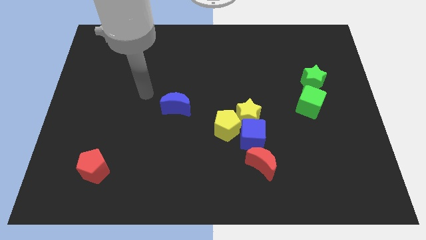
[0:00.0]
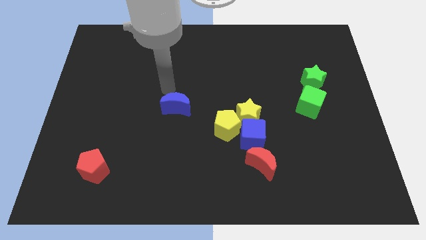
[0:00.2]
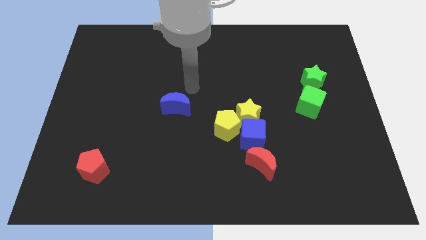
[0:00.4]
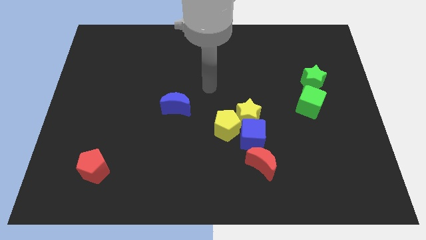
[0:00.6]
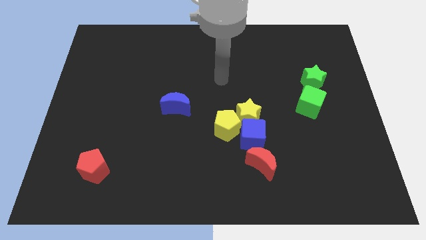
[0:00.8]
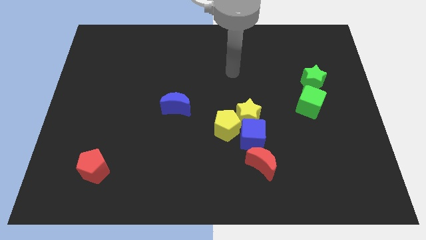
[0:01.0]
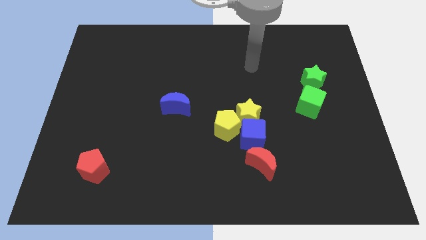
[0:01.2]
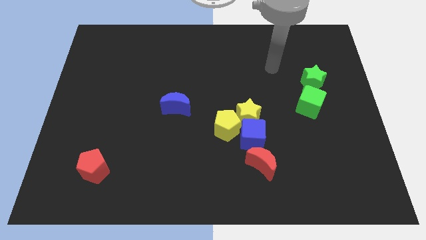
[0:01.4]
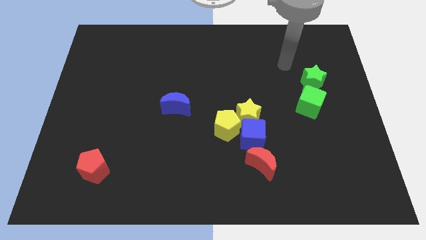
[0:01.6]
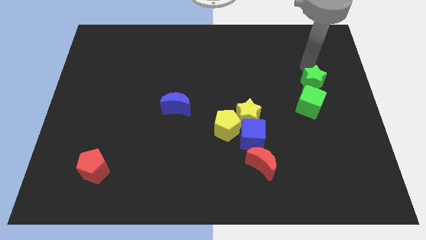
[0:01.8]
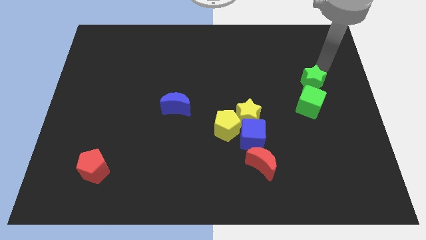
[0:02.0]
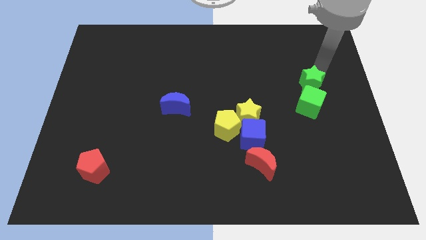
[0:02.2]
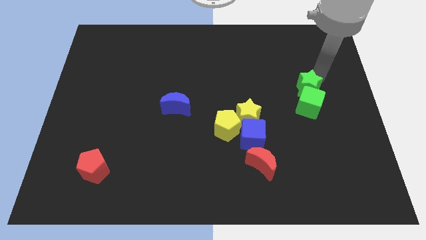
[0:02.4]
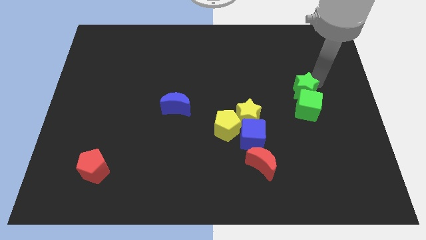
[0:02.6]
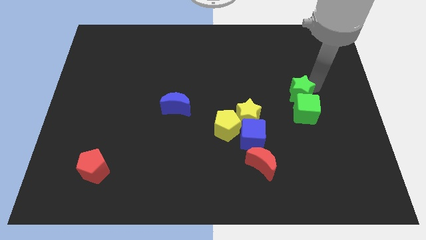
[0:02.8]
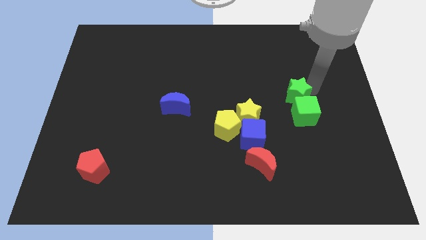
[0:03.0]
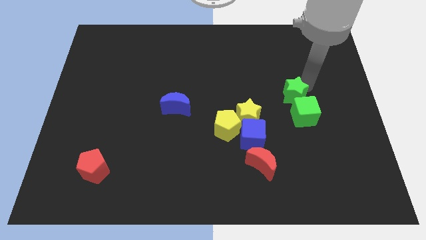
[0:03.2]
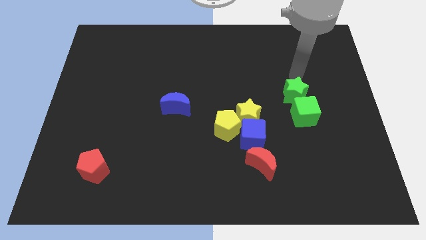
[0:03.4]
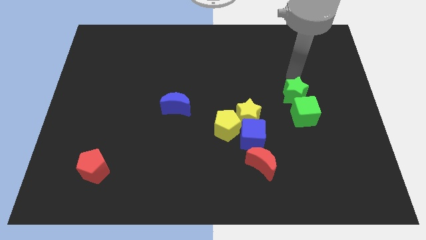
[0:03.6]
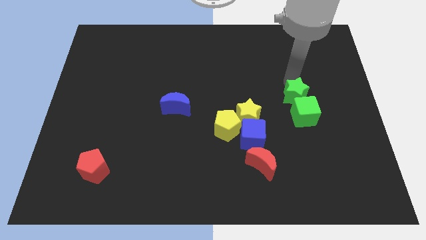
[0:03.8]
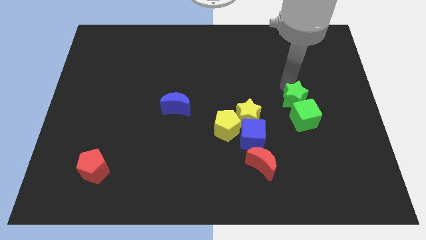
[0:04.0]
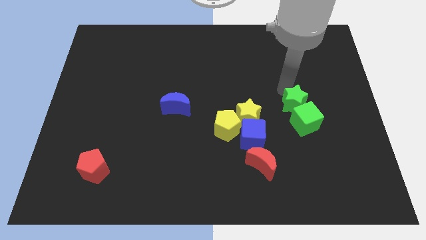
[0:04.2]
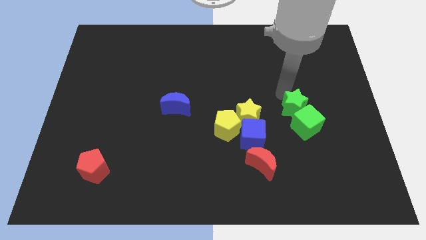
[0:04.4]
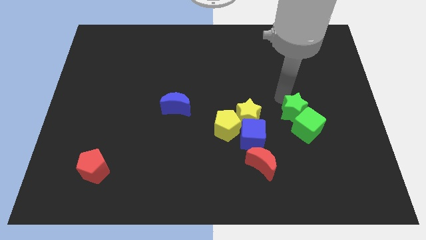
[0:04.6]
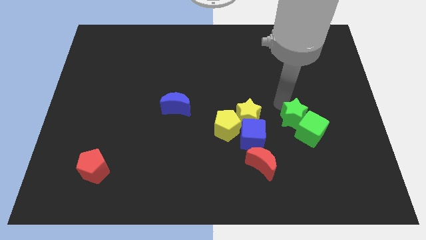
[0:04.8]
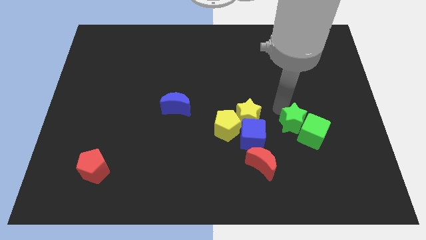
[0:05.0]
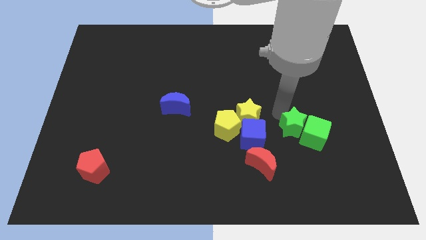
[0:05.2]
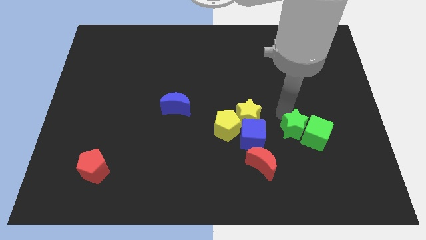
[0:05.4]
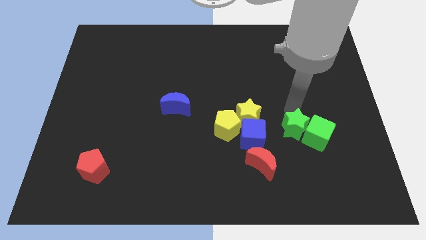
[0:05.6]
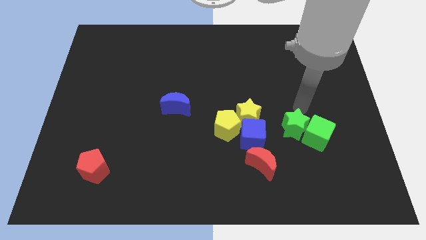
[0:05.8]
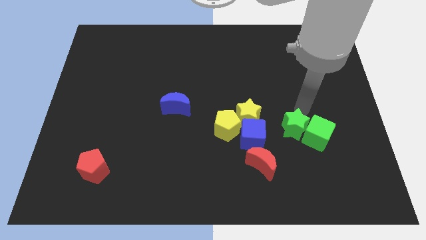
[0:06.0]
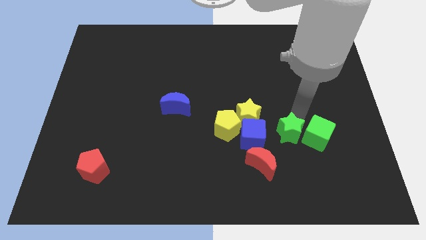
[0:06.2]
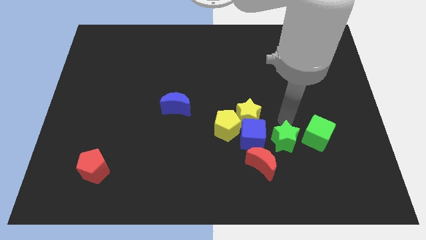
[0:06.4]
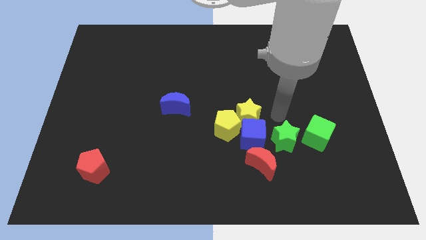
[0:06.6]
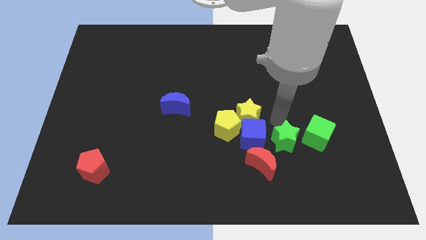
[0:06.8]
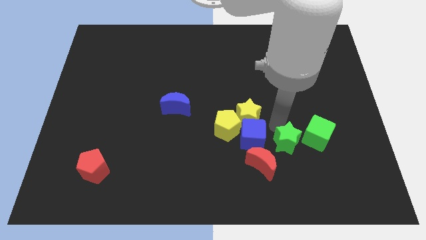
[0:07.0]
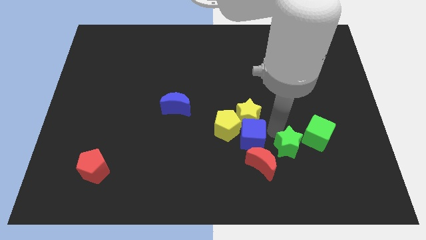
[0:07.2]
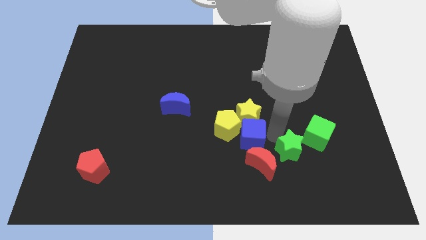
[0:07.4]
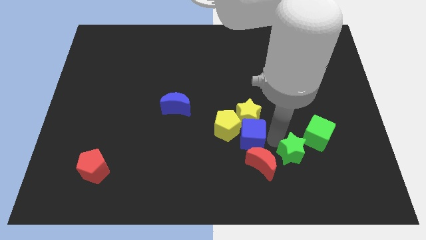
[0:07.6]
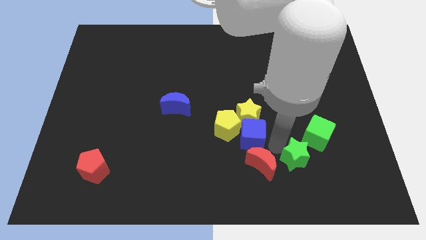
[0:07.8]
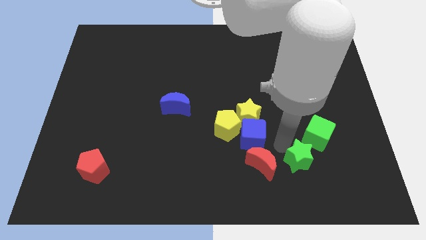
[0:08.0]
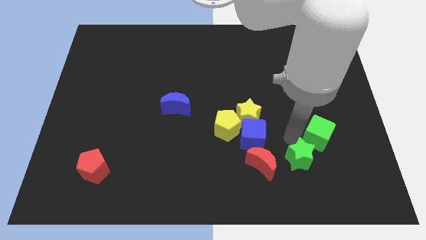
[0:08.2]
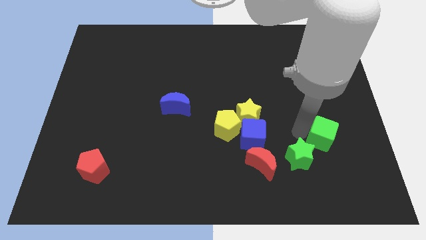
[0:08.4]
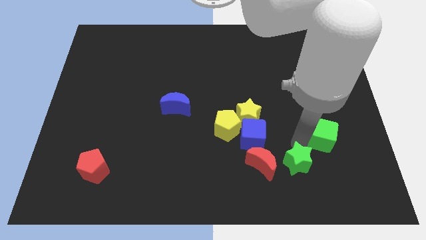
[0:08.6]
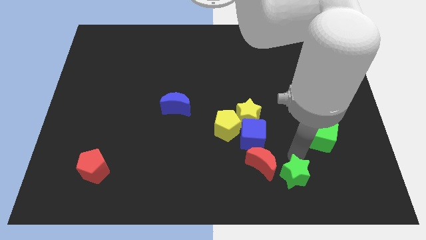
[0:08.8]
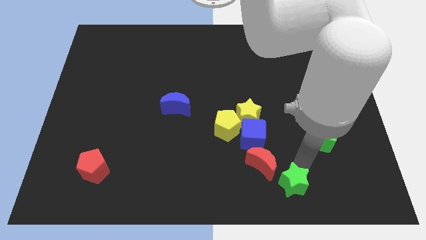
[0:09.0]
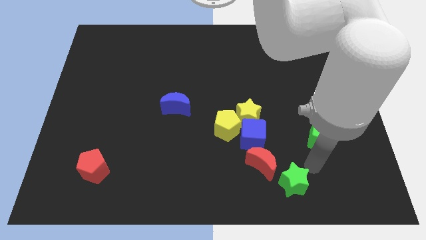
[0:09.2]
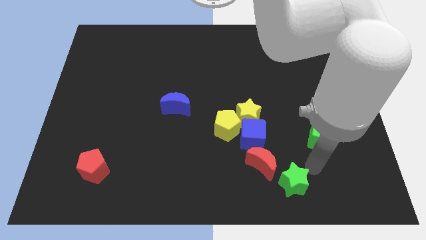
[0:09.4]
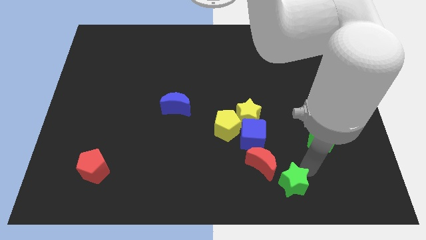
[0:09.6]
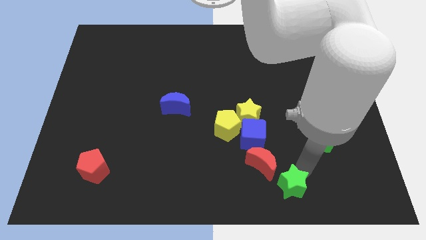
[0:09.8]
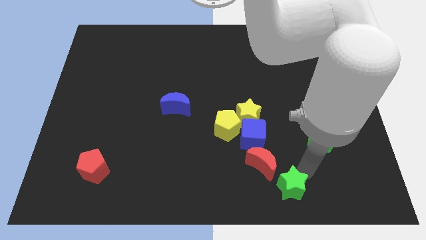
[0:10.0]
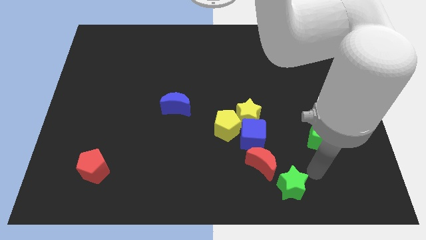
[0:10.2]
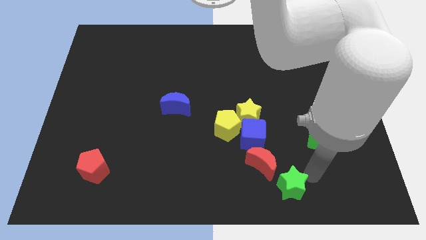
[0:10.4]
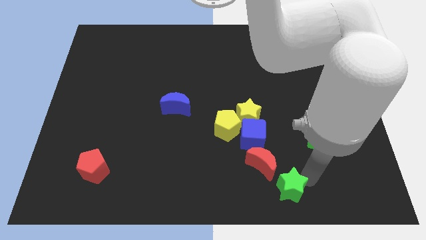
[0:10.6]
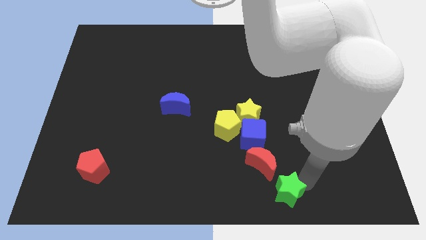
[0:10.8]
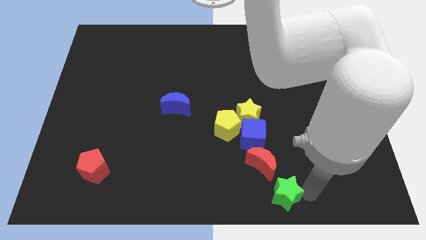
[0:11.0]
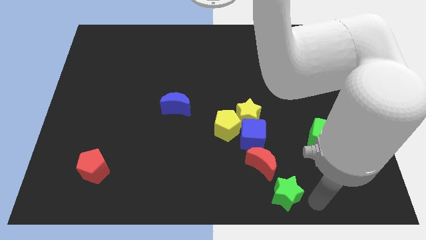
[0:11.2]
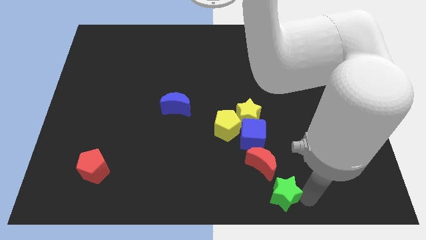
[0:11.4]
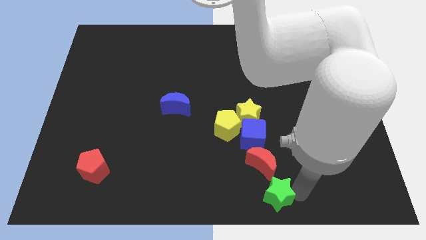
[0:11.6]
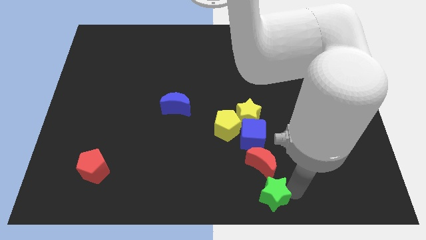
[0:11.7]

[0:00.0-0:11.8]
slide the green star downwards and to the left diagonally

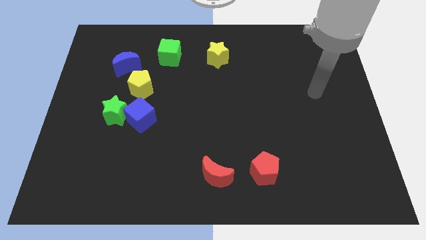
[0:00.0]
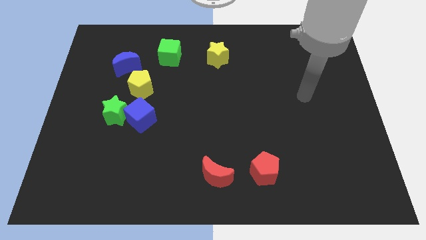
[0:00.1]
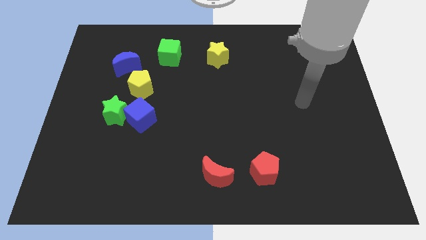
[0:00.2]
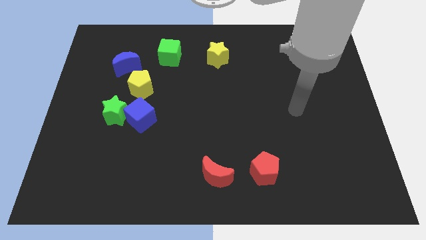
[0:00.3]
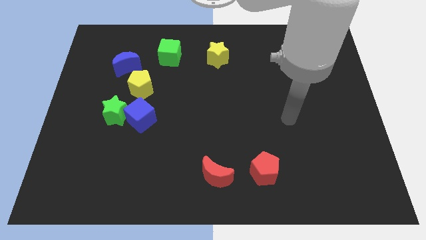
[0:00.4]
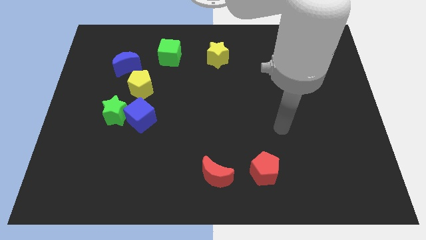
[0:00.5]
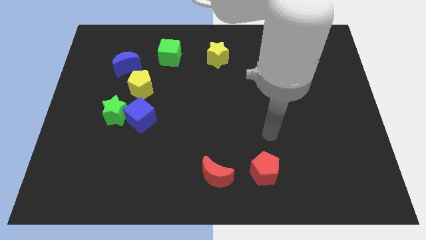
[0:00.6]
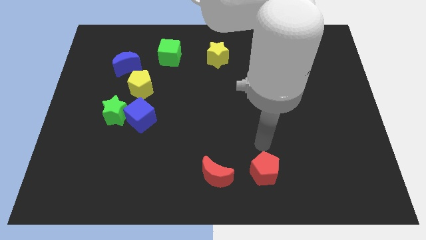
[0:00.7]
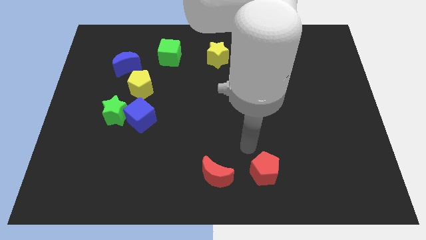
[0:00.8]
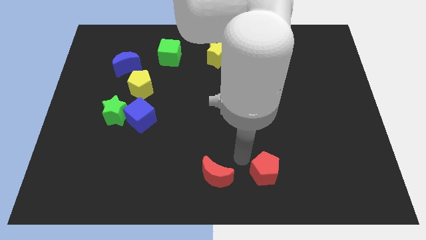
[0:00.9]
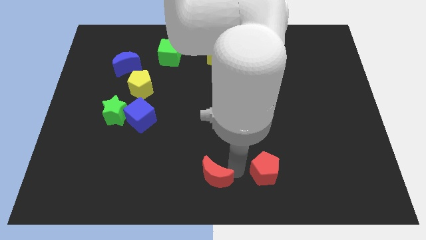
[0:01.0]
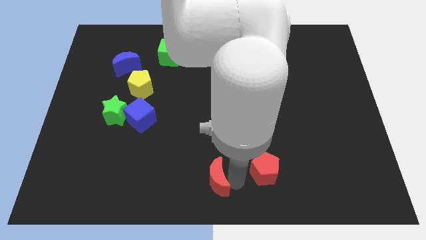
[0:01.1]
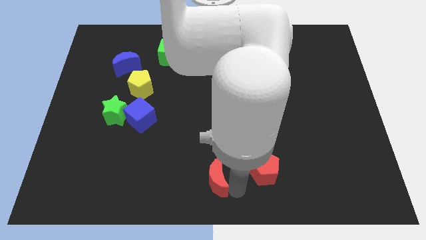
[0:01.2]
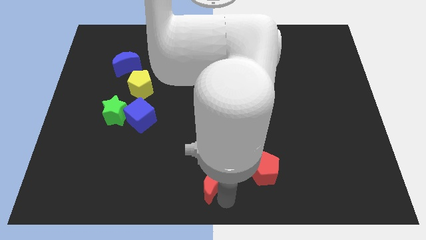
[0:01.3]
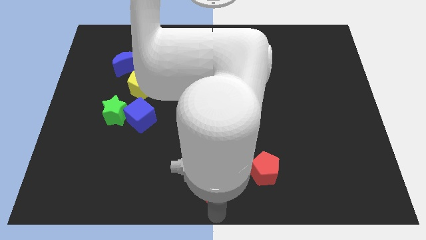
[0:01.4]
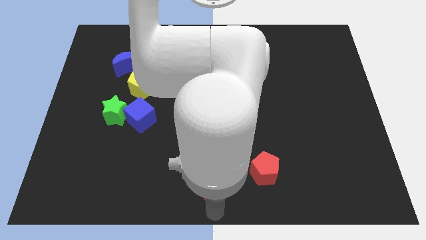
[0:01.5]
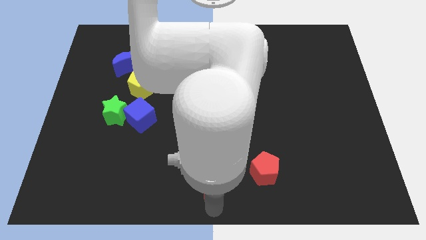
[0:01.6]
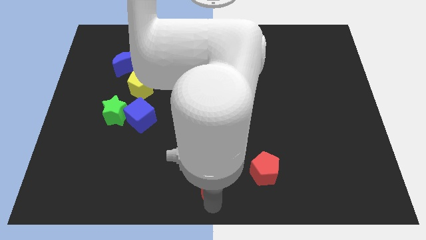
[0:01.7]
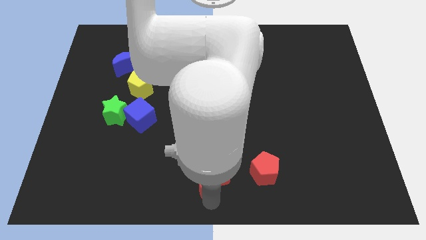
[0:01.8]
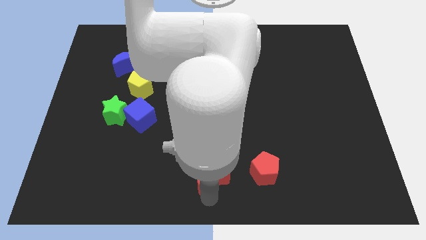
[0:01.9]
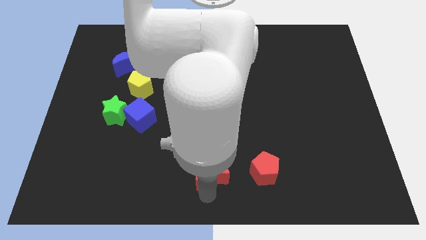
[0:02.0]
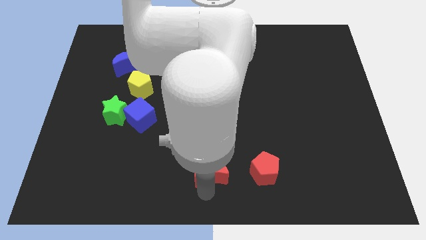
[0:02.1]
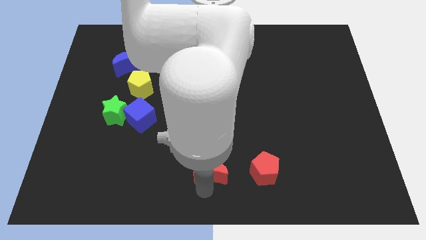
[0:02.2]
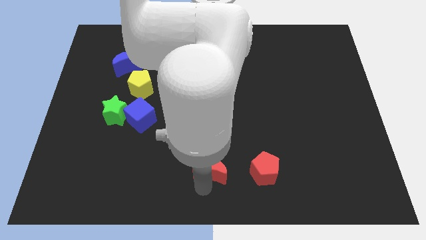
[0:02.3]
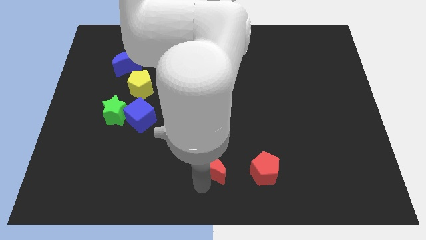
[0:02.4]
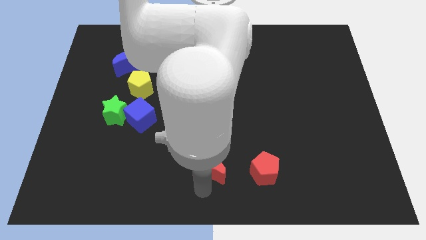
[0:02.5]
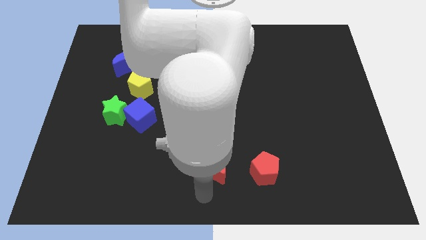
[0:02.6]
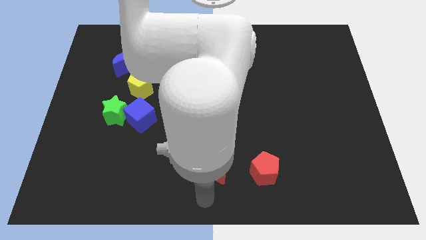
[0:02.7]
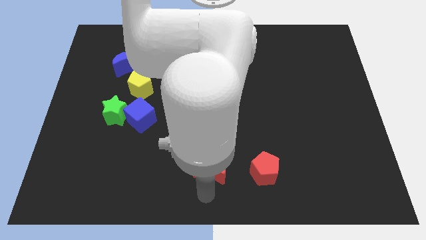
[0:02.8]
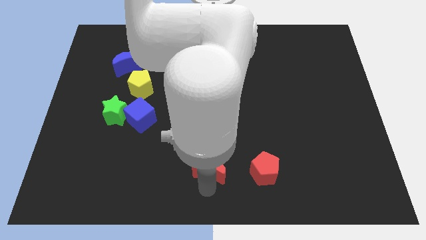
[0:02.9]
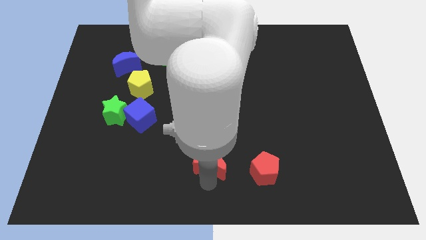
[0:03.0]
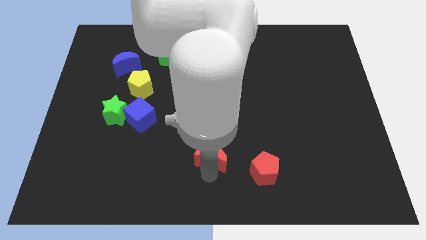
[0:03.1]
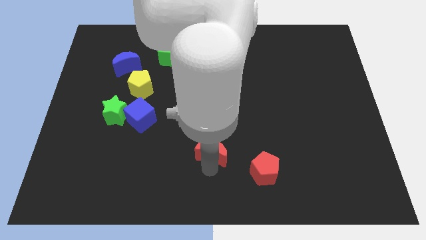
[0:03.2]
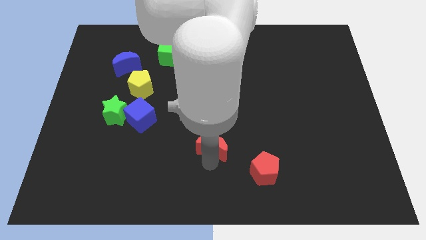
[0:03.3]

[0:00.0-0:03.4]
slightly move the red moon up
